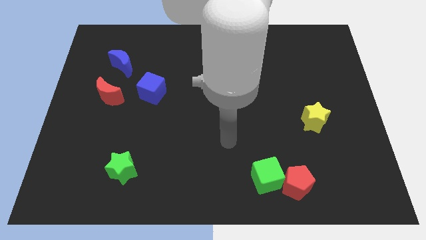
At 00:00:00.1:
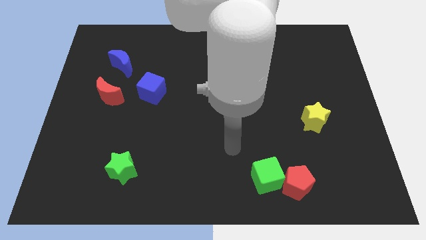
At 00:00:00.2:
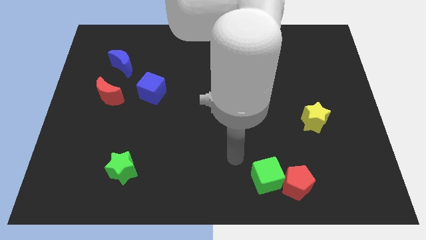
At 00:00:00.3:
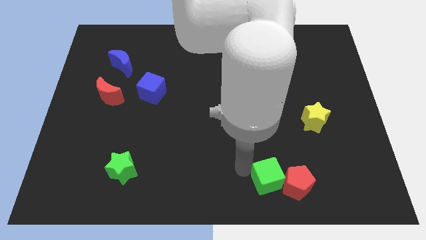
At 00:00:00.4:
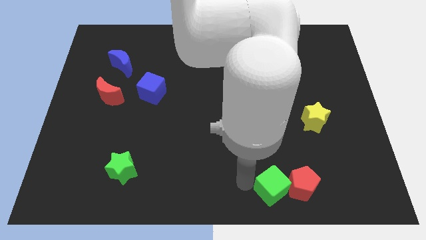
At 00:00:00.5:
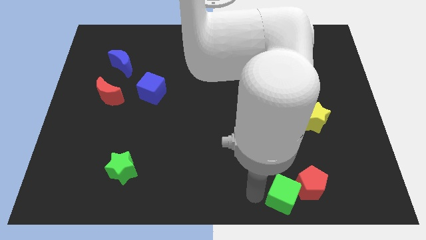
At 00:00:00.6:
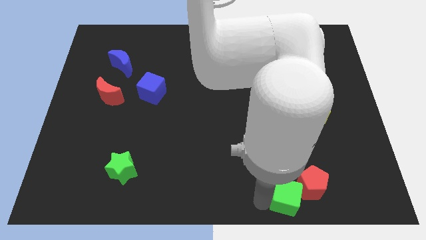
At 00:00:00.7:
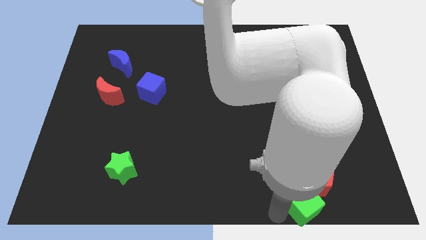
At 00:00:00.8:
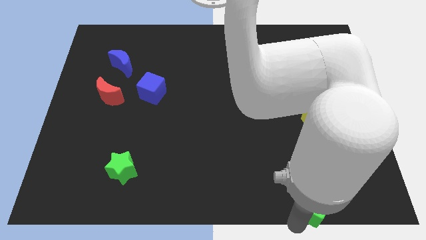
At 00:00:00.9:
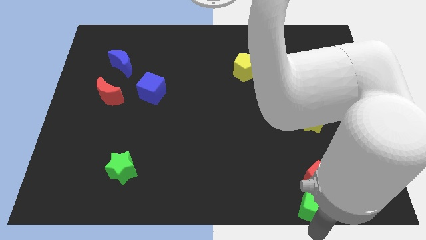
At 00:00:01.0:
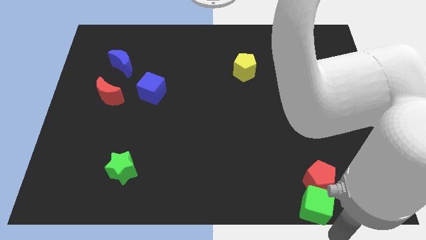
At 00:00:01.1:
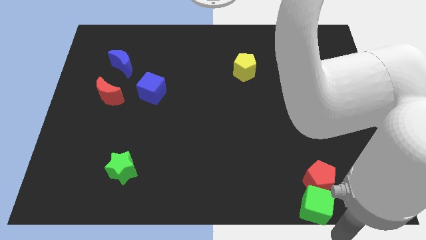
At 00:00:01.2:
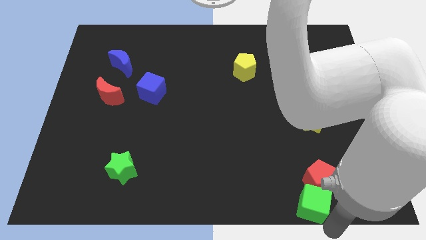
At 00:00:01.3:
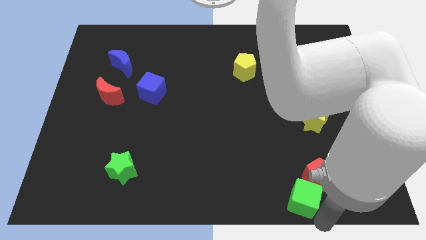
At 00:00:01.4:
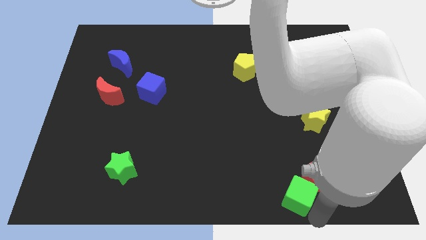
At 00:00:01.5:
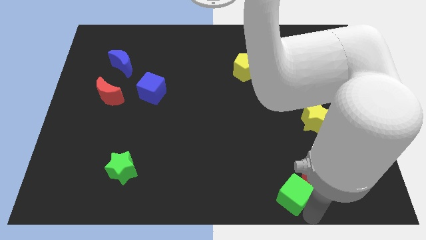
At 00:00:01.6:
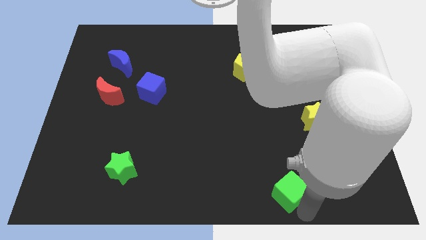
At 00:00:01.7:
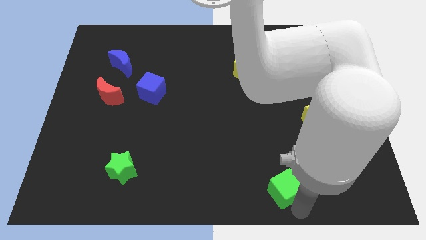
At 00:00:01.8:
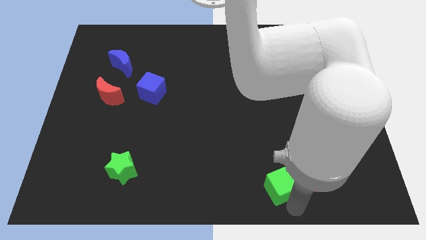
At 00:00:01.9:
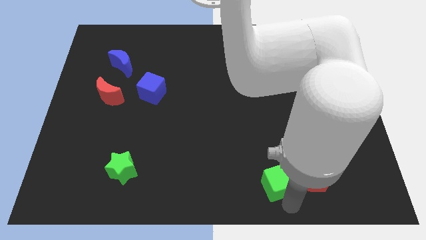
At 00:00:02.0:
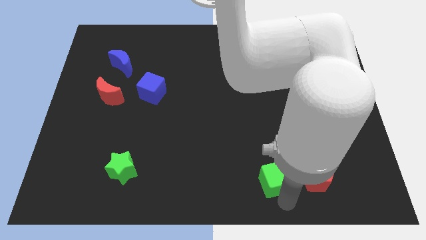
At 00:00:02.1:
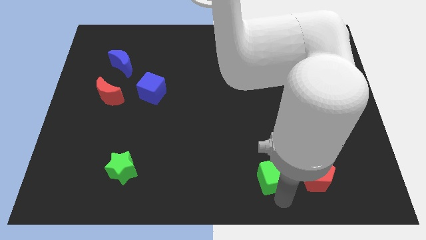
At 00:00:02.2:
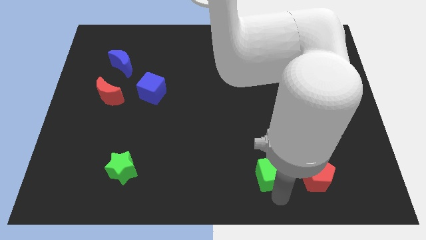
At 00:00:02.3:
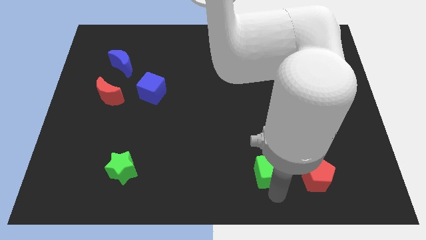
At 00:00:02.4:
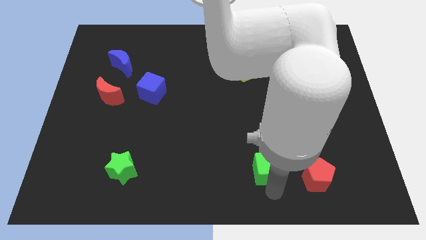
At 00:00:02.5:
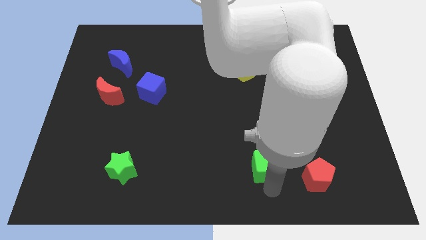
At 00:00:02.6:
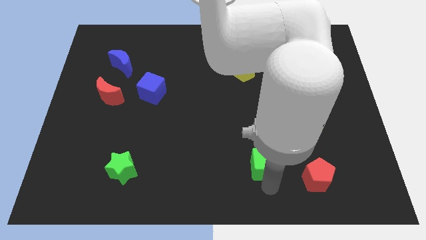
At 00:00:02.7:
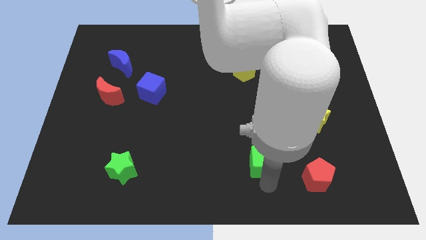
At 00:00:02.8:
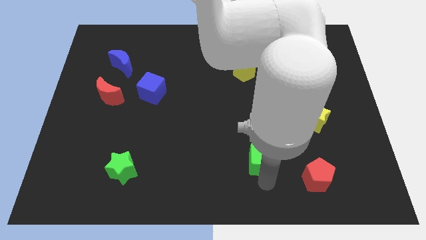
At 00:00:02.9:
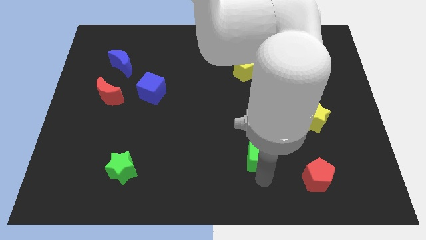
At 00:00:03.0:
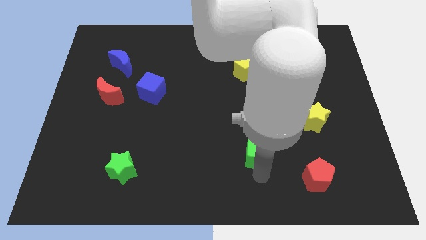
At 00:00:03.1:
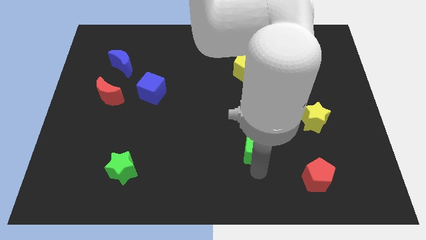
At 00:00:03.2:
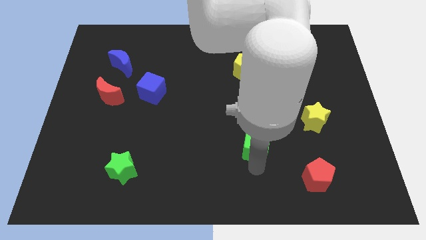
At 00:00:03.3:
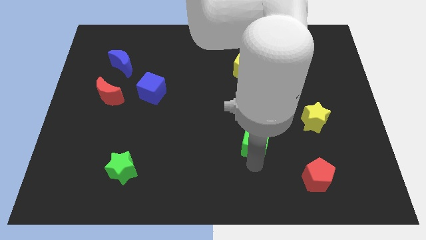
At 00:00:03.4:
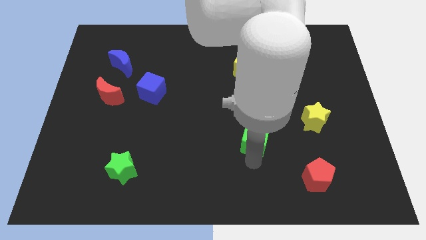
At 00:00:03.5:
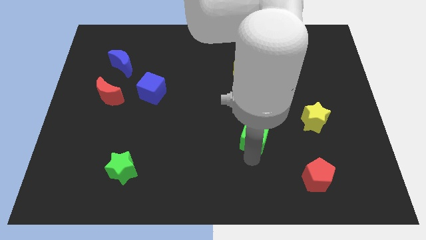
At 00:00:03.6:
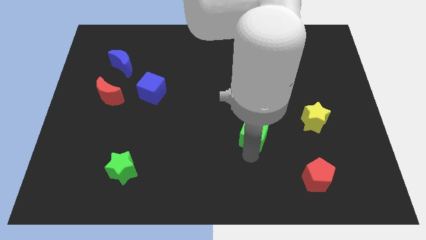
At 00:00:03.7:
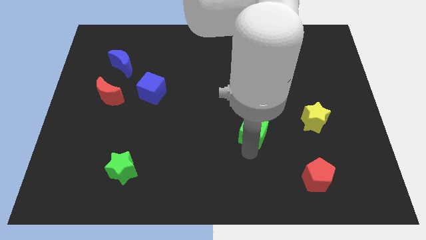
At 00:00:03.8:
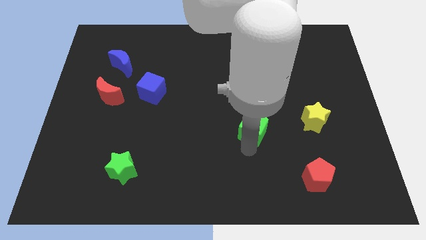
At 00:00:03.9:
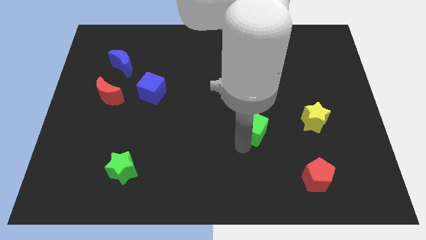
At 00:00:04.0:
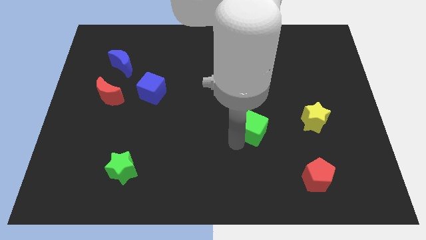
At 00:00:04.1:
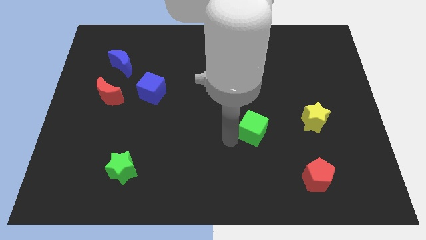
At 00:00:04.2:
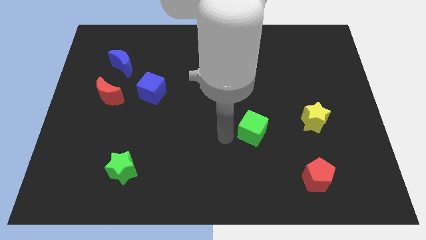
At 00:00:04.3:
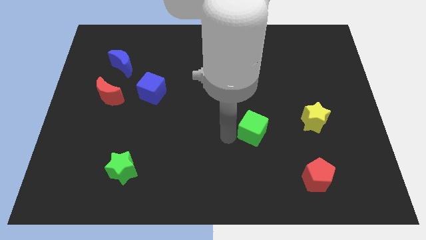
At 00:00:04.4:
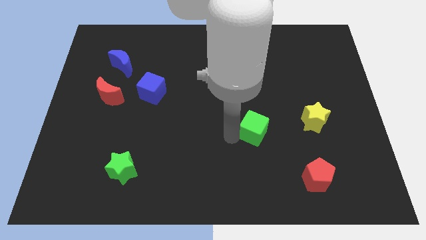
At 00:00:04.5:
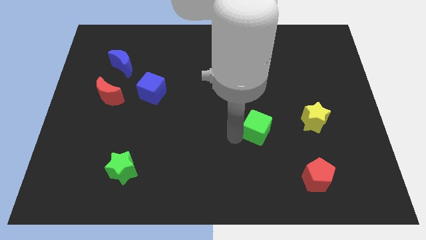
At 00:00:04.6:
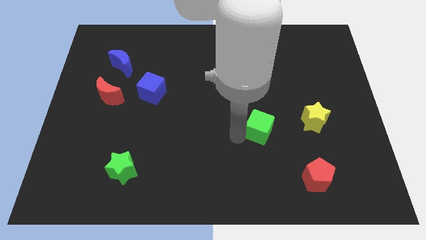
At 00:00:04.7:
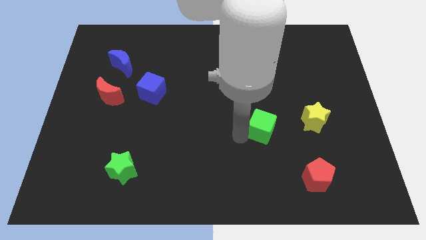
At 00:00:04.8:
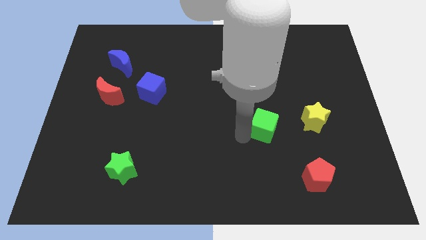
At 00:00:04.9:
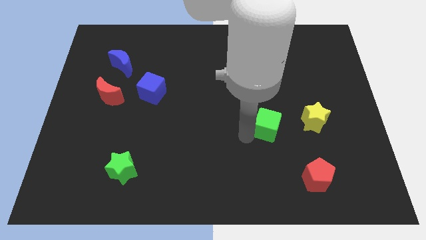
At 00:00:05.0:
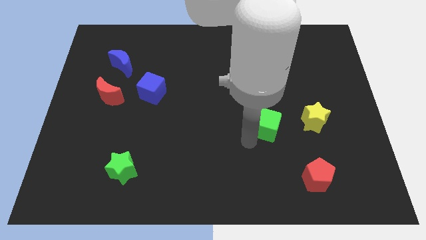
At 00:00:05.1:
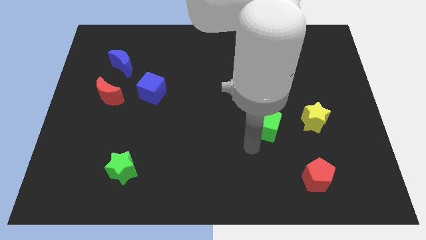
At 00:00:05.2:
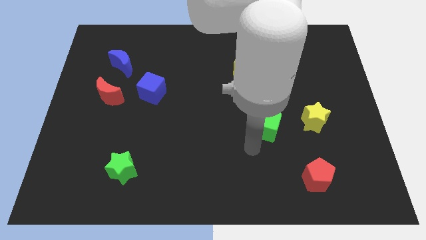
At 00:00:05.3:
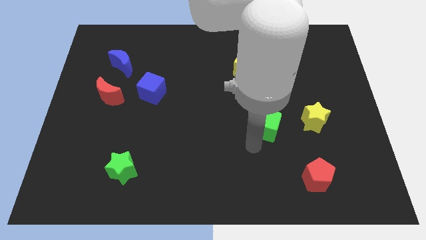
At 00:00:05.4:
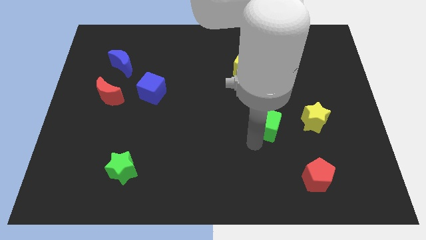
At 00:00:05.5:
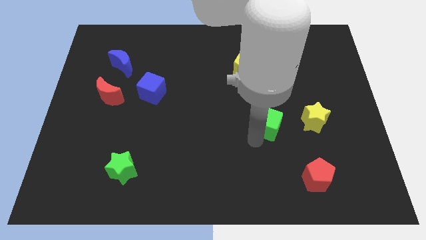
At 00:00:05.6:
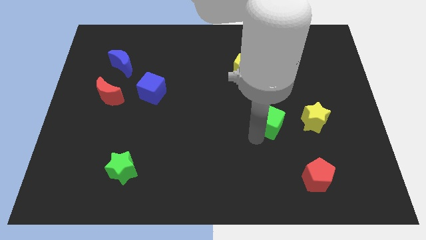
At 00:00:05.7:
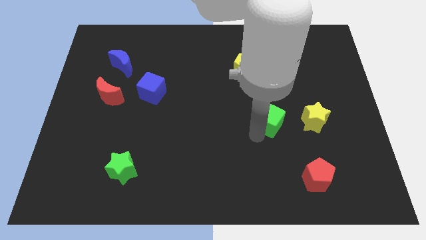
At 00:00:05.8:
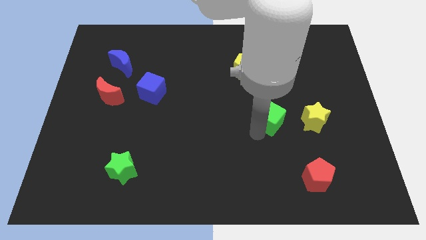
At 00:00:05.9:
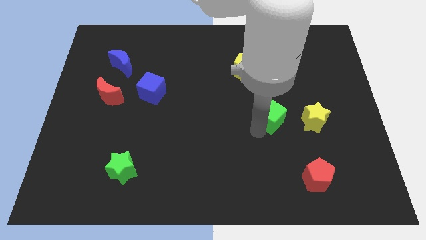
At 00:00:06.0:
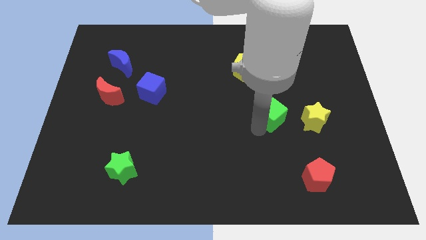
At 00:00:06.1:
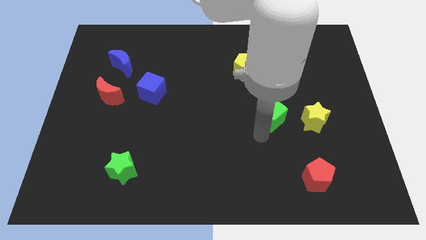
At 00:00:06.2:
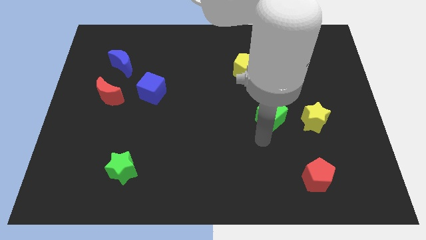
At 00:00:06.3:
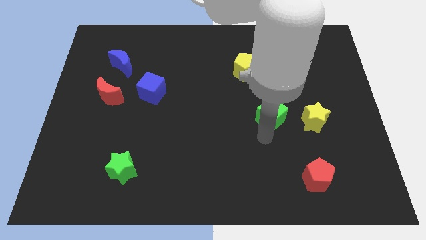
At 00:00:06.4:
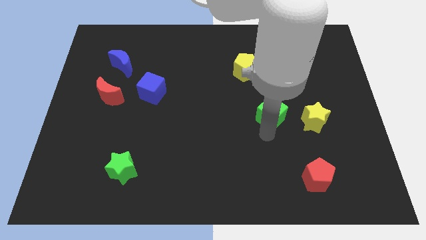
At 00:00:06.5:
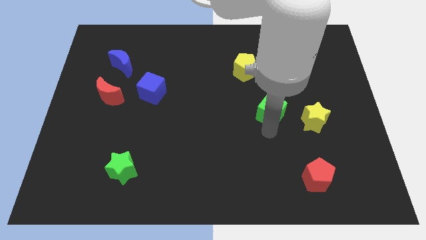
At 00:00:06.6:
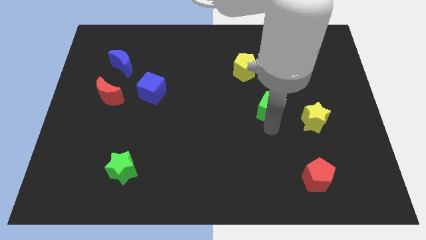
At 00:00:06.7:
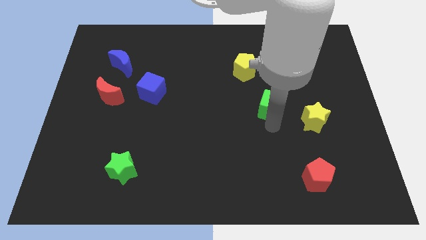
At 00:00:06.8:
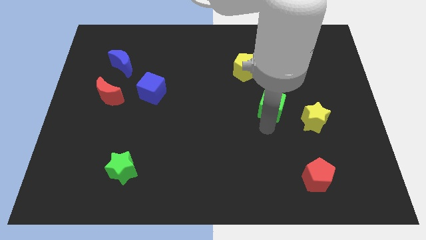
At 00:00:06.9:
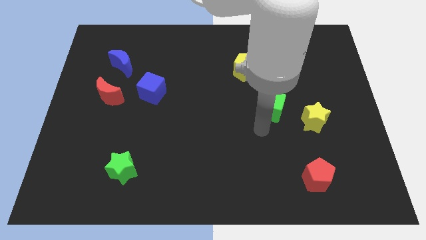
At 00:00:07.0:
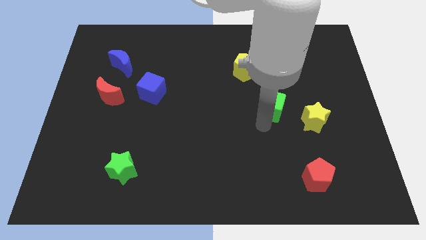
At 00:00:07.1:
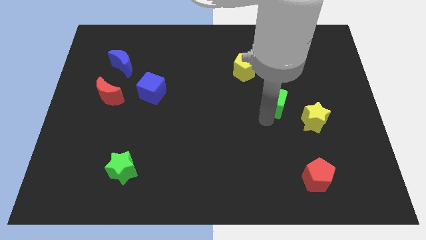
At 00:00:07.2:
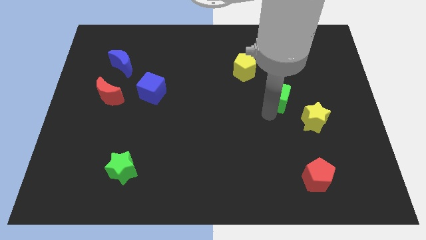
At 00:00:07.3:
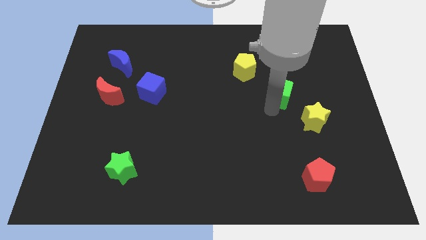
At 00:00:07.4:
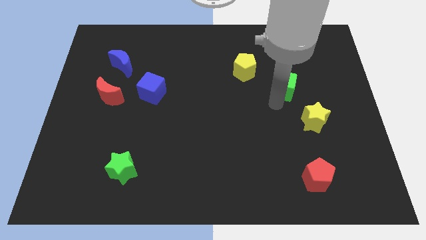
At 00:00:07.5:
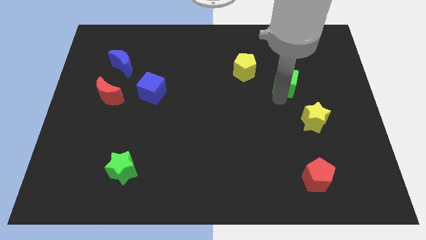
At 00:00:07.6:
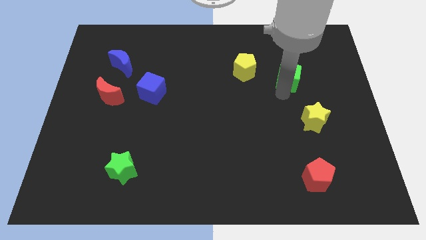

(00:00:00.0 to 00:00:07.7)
put the green cube to the right of the yellow pentagon
